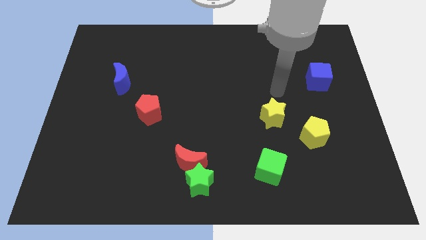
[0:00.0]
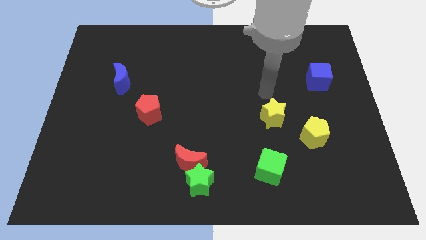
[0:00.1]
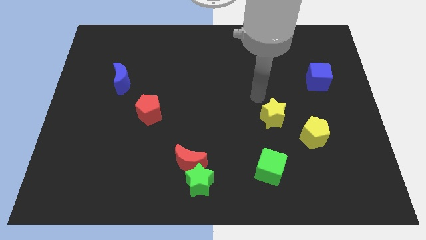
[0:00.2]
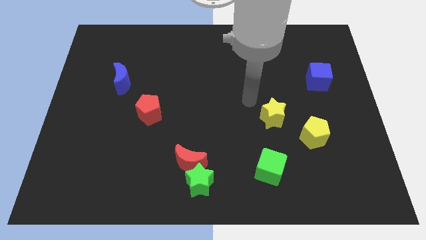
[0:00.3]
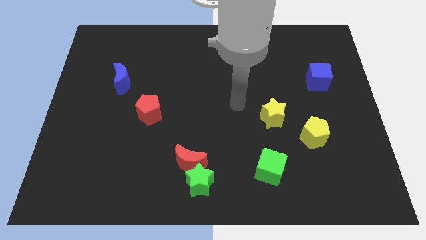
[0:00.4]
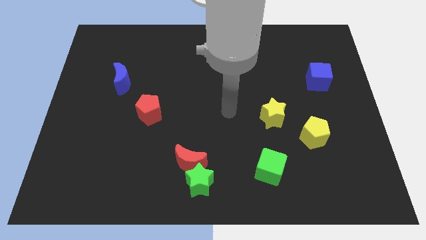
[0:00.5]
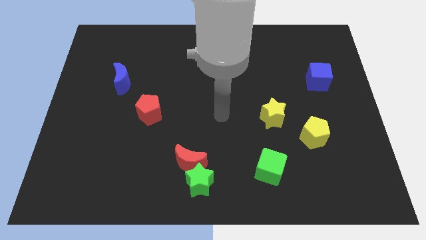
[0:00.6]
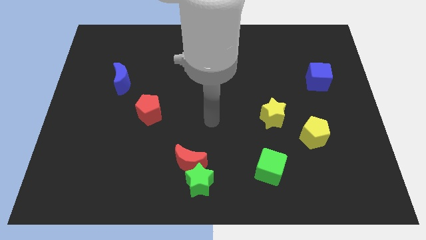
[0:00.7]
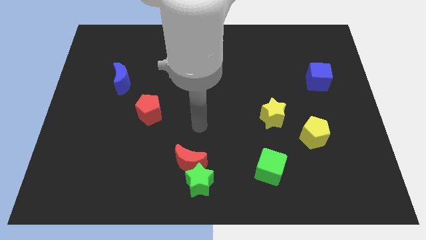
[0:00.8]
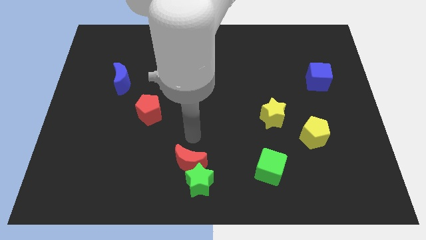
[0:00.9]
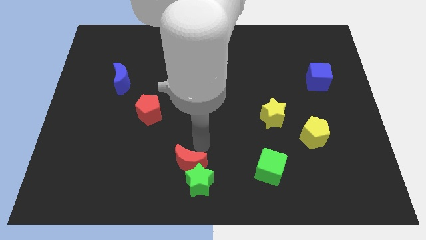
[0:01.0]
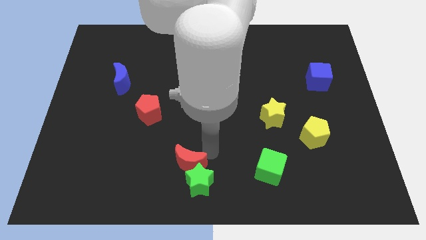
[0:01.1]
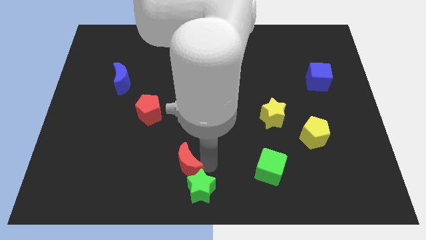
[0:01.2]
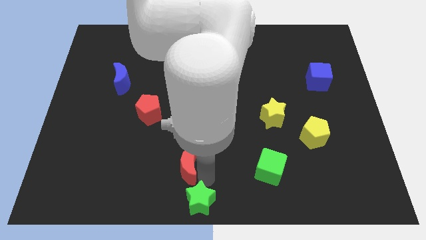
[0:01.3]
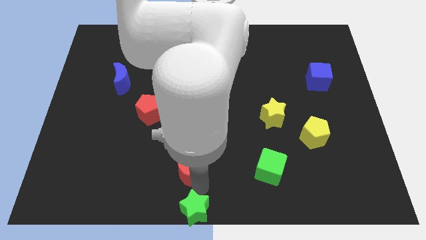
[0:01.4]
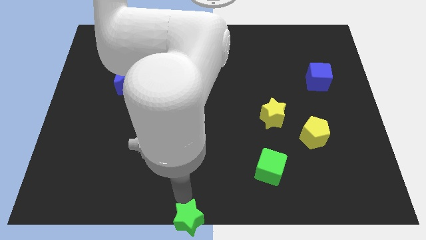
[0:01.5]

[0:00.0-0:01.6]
pull the red moon apart from the green star

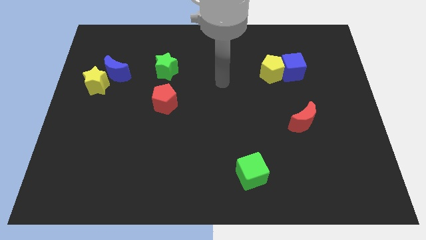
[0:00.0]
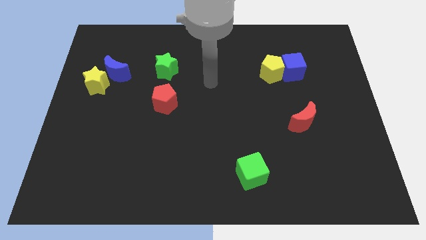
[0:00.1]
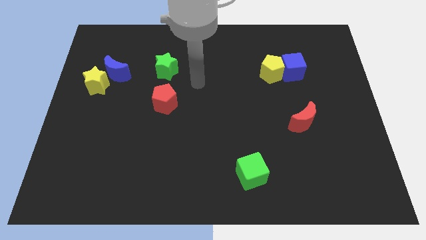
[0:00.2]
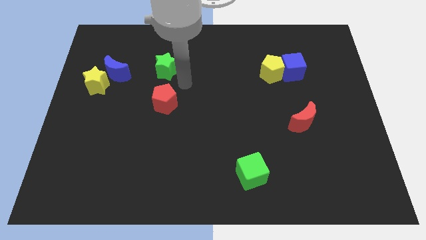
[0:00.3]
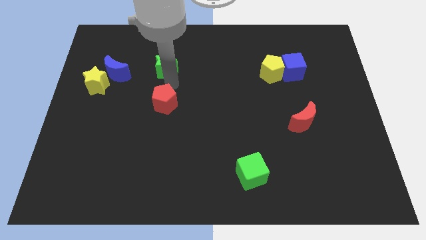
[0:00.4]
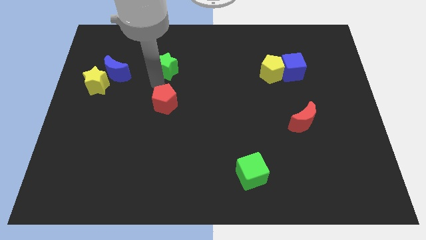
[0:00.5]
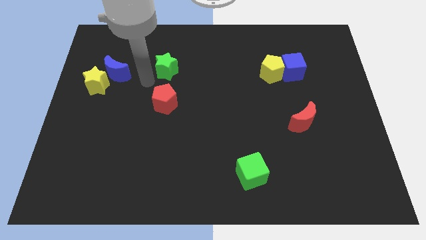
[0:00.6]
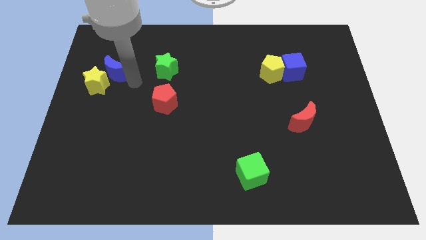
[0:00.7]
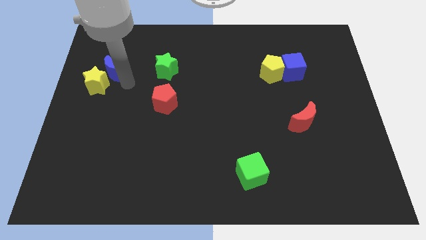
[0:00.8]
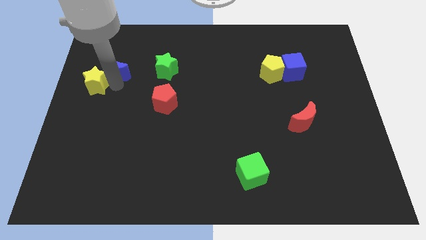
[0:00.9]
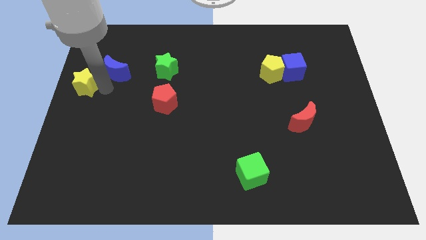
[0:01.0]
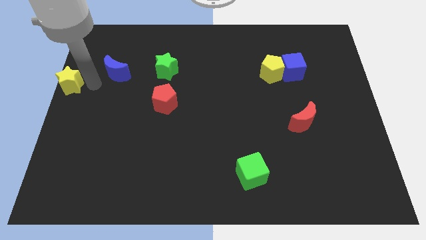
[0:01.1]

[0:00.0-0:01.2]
move the blue moon away from the yellow star

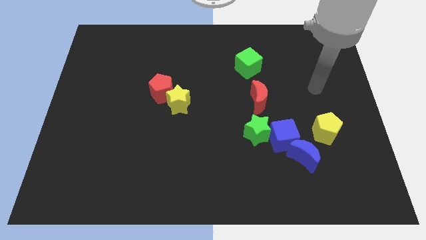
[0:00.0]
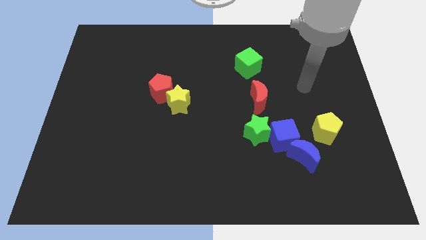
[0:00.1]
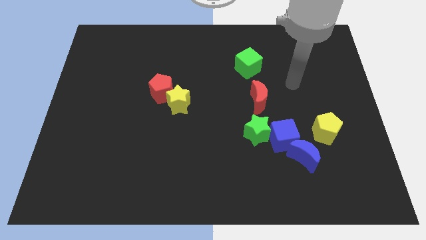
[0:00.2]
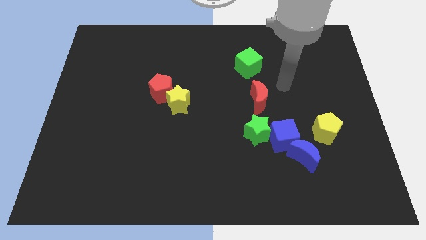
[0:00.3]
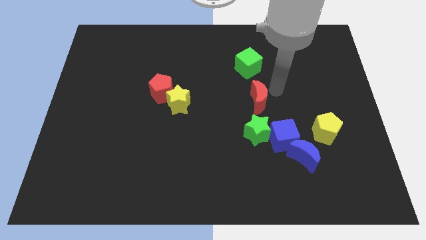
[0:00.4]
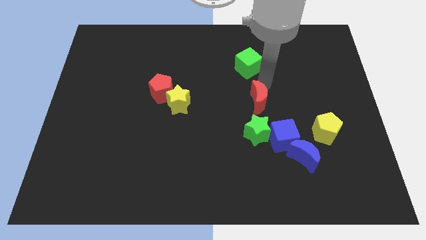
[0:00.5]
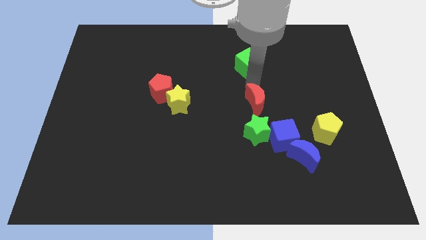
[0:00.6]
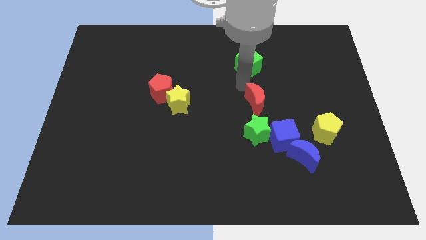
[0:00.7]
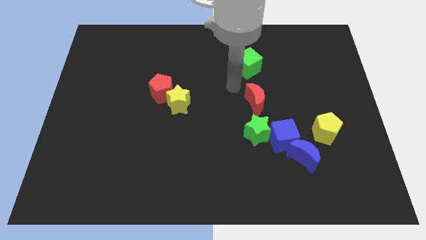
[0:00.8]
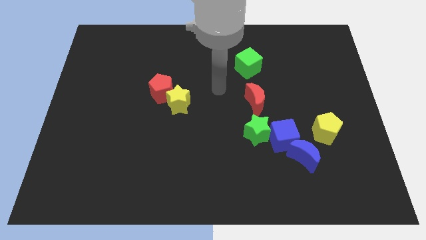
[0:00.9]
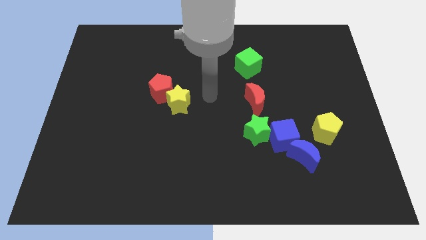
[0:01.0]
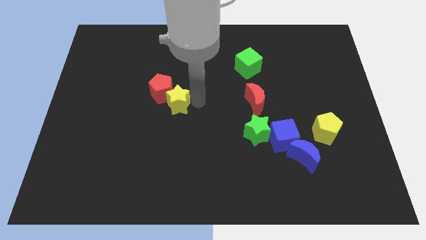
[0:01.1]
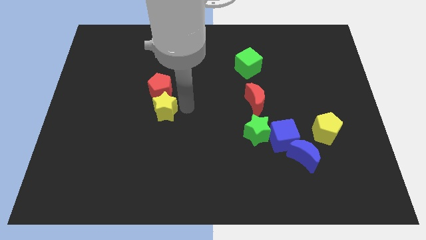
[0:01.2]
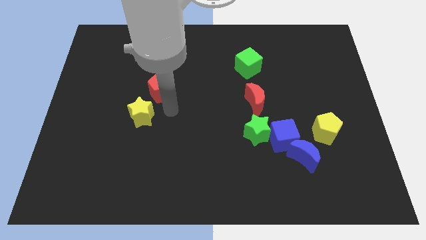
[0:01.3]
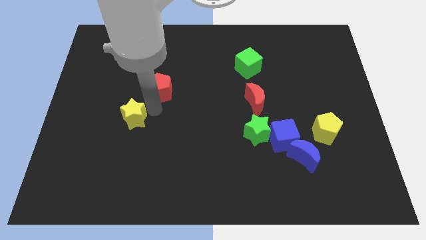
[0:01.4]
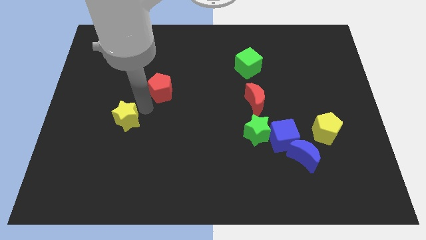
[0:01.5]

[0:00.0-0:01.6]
separate the red pentagon from the yellow star

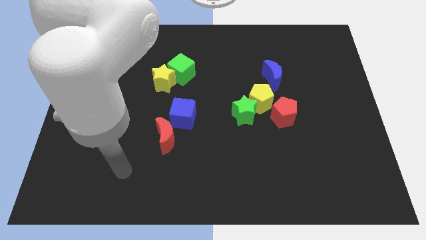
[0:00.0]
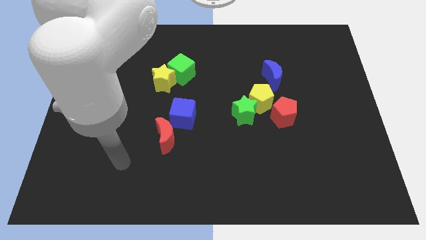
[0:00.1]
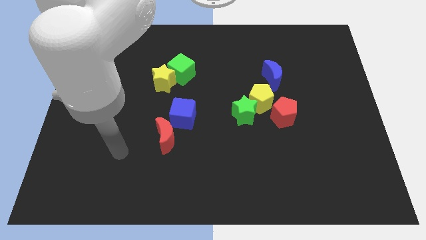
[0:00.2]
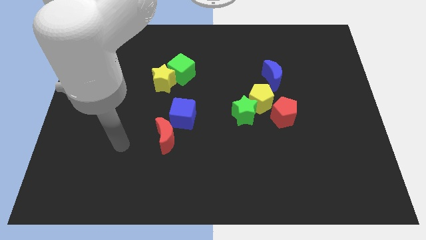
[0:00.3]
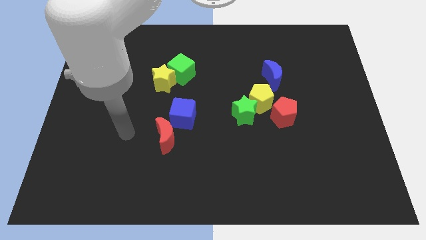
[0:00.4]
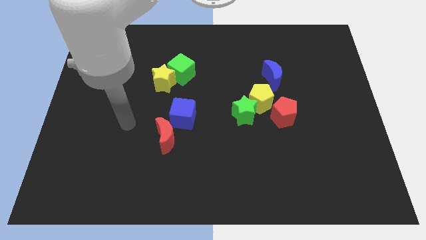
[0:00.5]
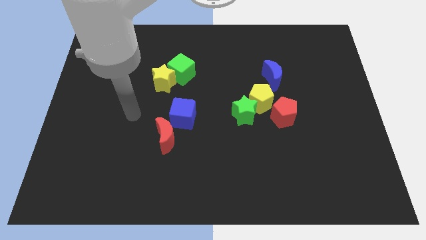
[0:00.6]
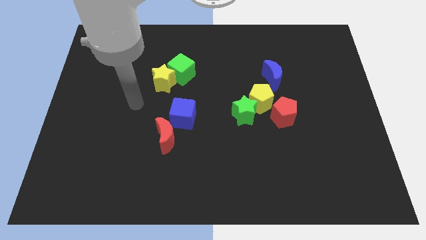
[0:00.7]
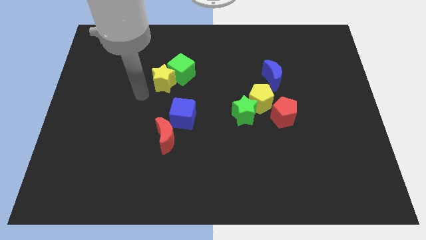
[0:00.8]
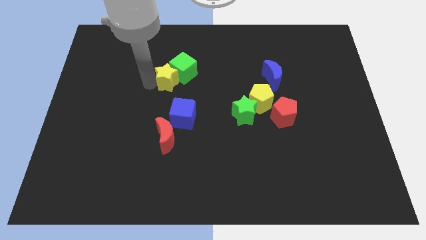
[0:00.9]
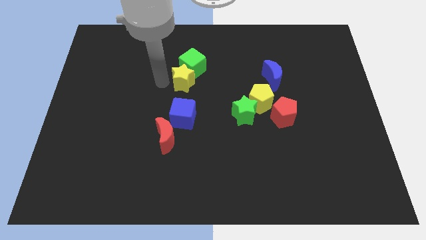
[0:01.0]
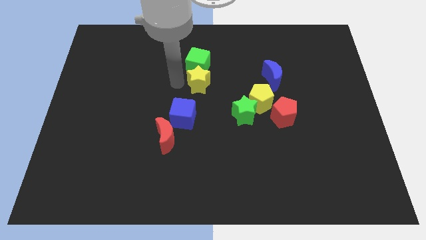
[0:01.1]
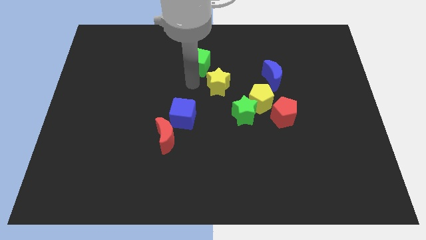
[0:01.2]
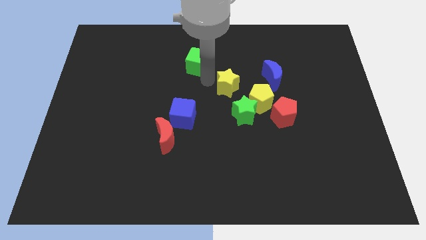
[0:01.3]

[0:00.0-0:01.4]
separate the green cube from the yellow star

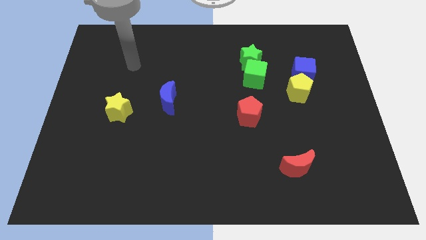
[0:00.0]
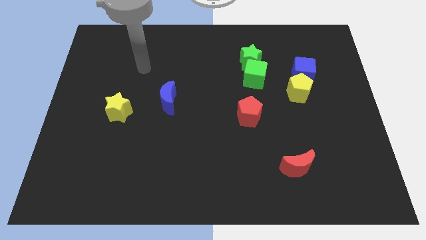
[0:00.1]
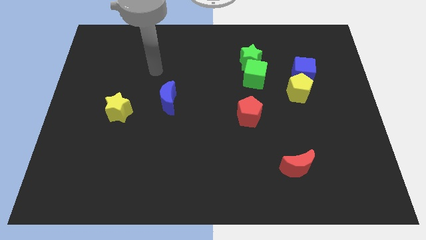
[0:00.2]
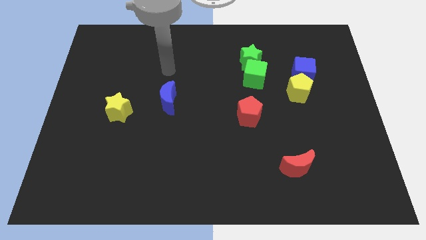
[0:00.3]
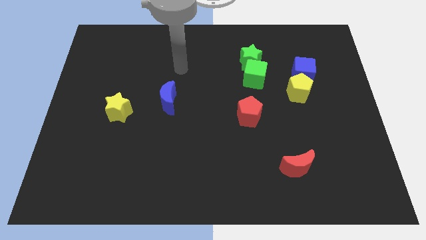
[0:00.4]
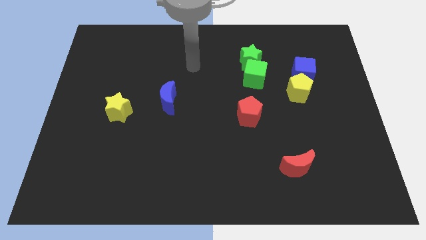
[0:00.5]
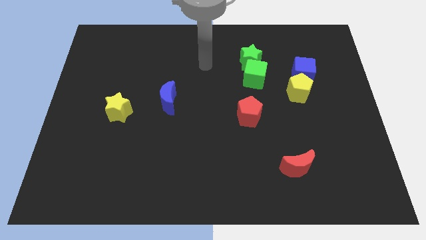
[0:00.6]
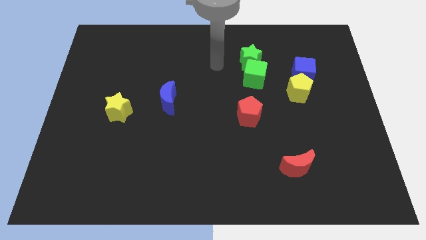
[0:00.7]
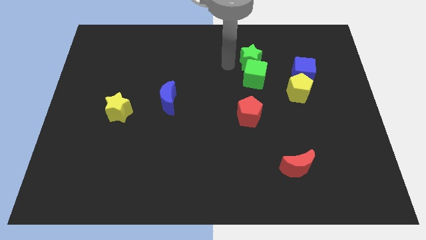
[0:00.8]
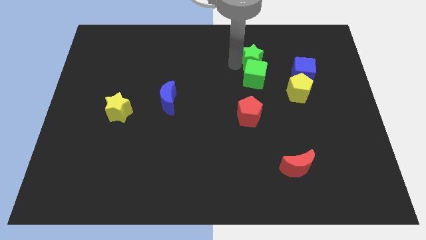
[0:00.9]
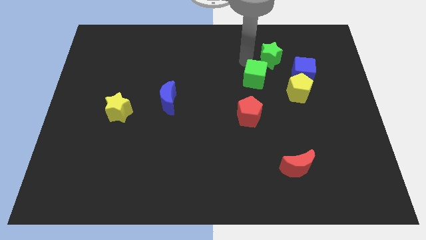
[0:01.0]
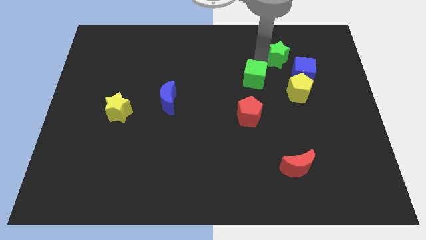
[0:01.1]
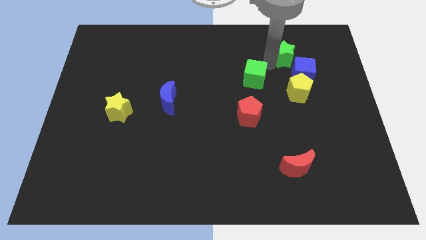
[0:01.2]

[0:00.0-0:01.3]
separate the green cube from the green star

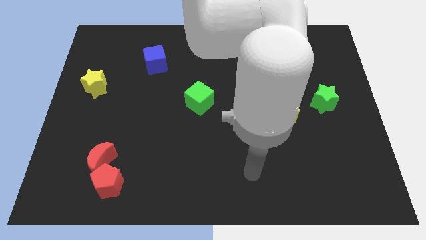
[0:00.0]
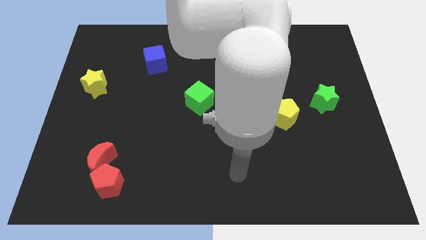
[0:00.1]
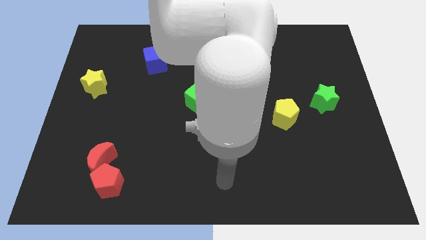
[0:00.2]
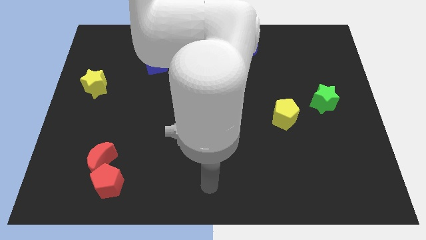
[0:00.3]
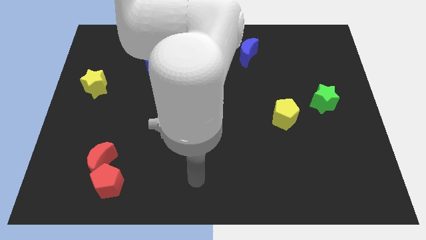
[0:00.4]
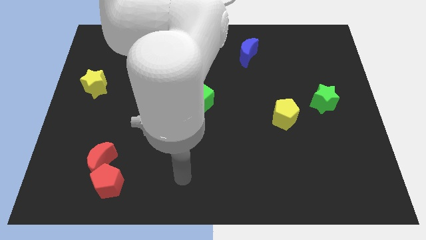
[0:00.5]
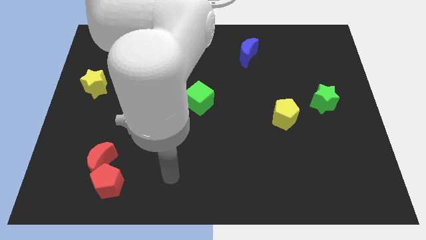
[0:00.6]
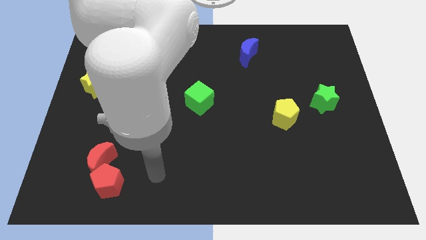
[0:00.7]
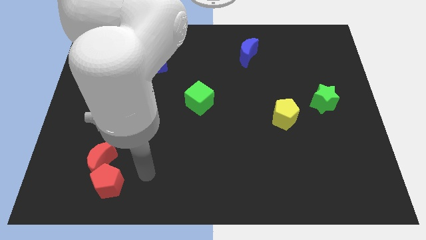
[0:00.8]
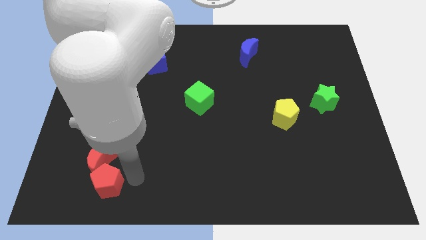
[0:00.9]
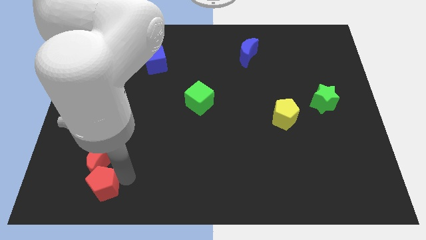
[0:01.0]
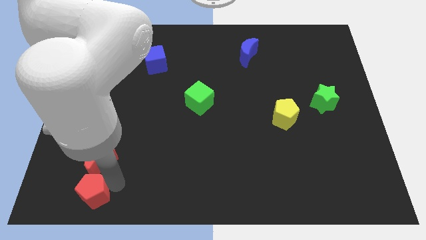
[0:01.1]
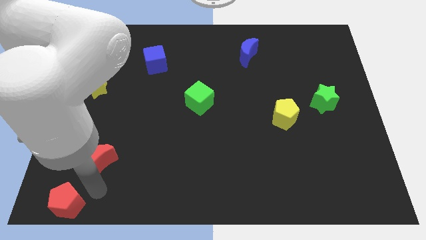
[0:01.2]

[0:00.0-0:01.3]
pull the red moon apart from the red pentagon

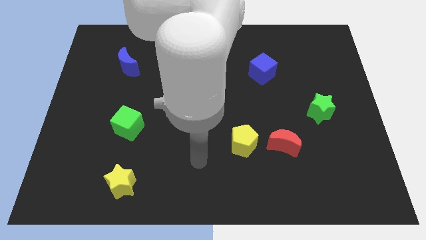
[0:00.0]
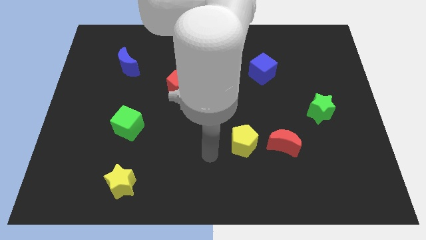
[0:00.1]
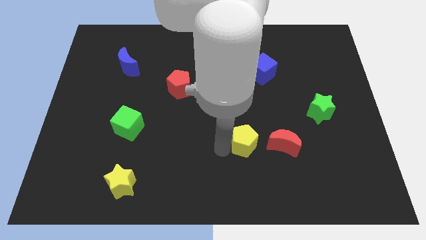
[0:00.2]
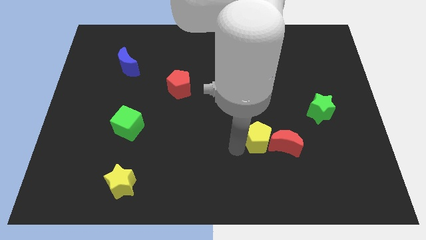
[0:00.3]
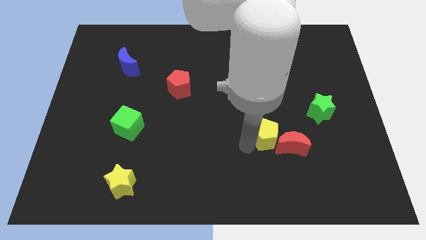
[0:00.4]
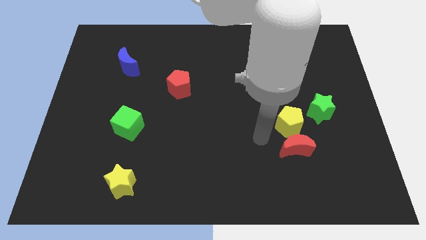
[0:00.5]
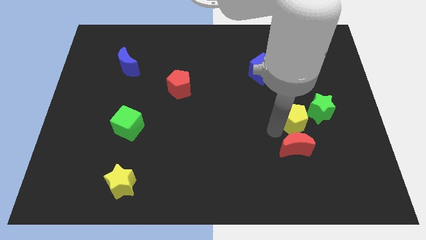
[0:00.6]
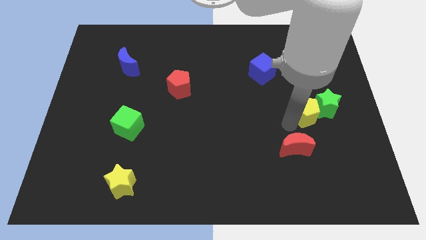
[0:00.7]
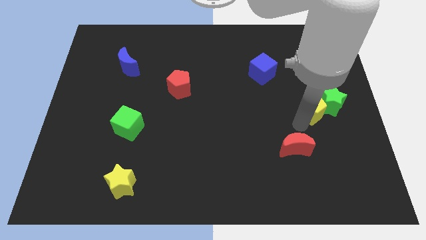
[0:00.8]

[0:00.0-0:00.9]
separate the red moon from the yellow pentagon
